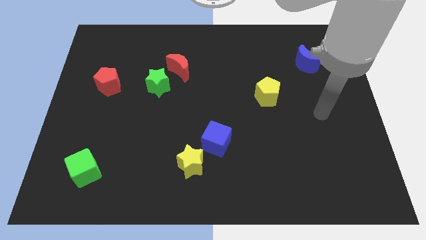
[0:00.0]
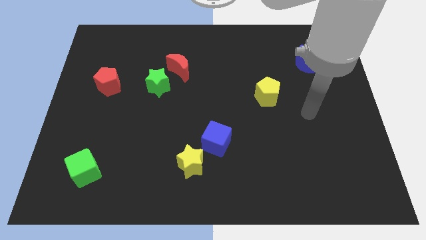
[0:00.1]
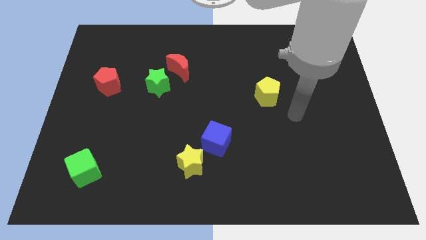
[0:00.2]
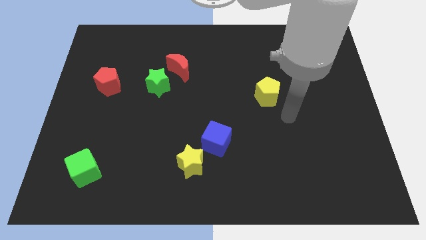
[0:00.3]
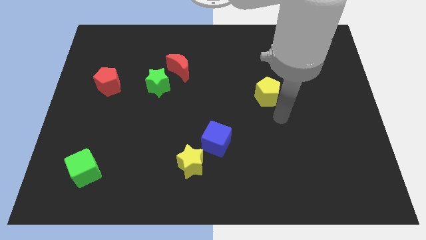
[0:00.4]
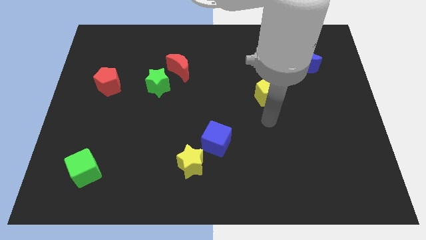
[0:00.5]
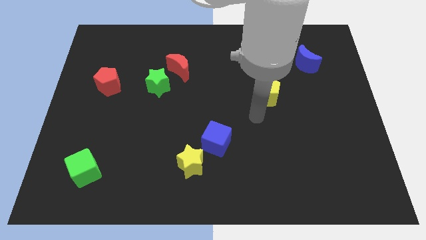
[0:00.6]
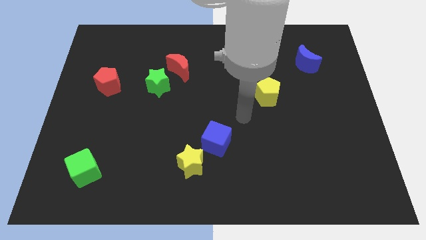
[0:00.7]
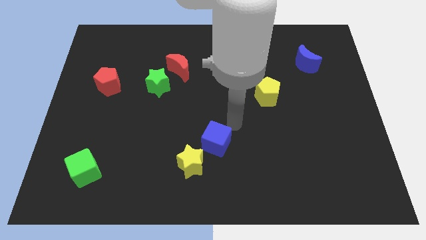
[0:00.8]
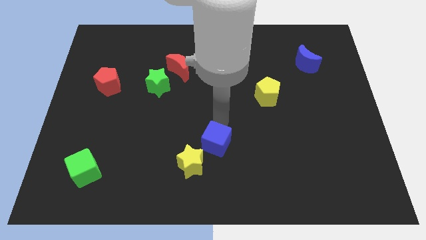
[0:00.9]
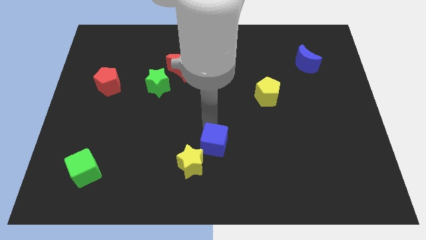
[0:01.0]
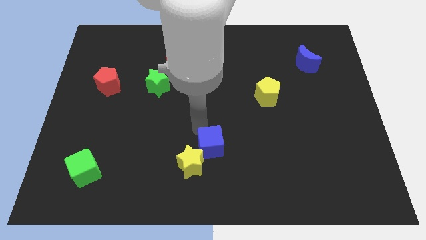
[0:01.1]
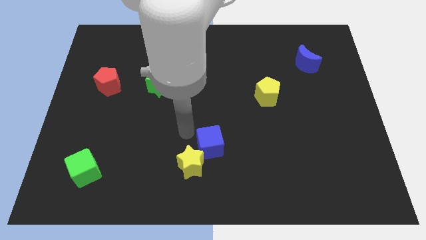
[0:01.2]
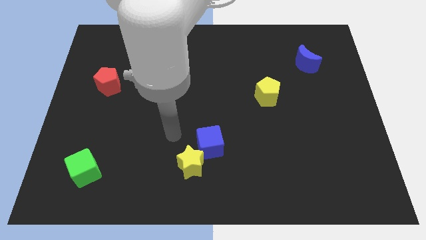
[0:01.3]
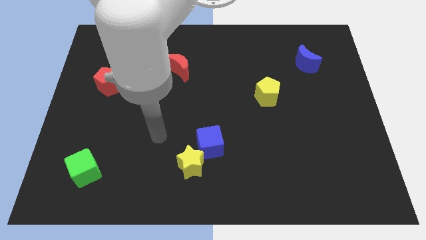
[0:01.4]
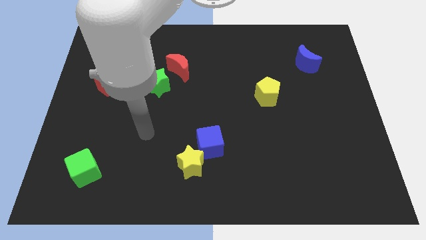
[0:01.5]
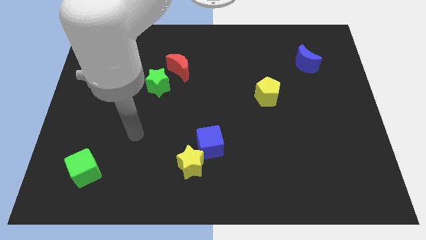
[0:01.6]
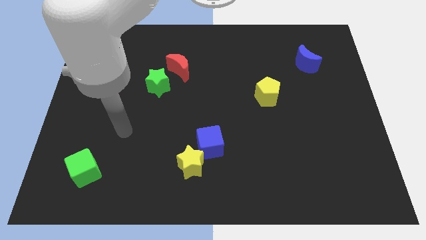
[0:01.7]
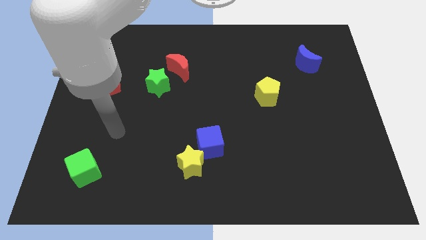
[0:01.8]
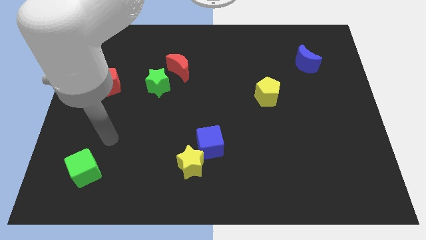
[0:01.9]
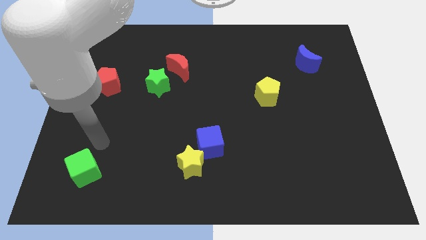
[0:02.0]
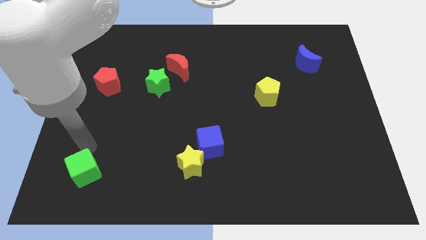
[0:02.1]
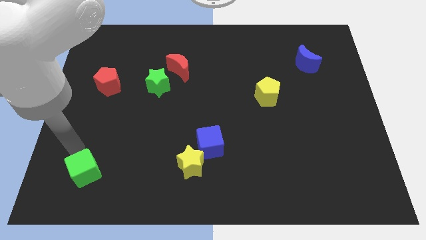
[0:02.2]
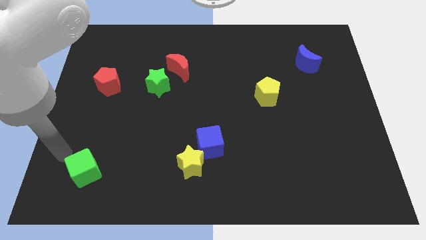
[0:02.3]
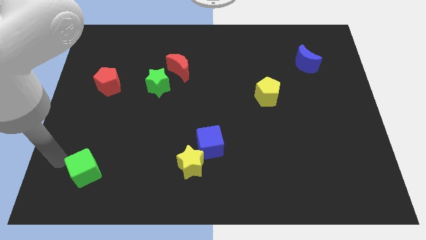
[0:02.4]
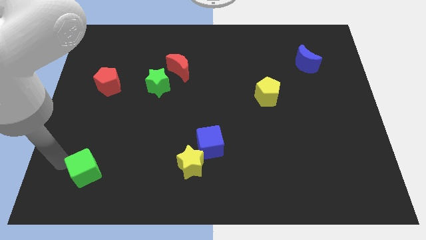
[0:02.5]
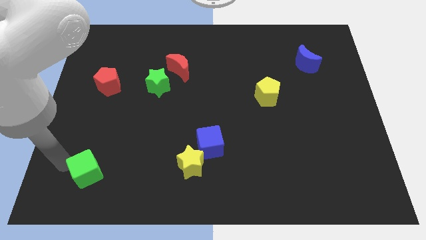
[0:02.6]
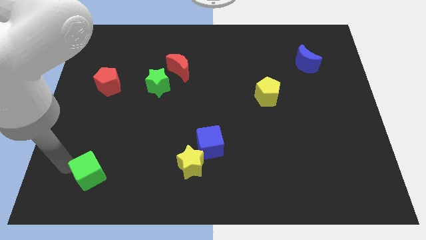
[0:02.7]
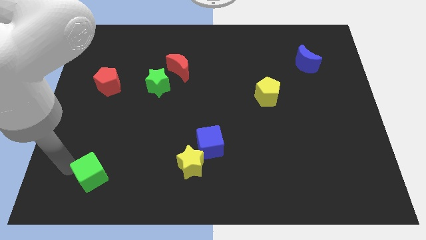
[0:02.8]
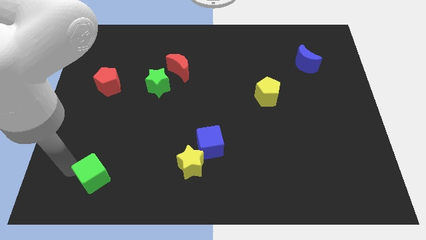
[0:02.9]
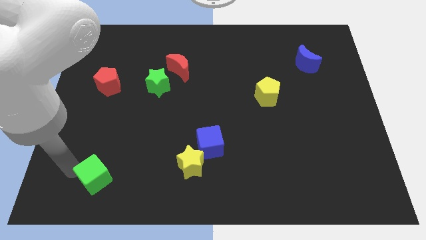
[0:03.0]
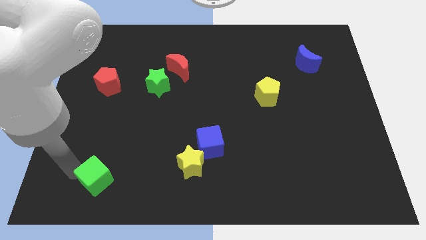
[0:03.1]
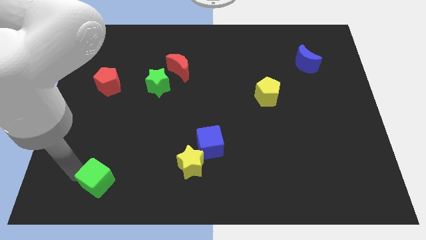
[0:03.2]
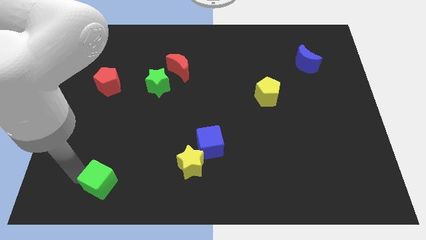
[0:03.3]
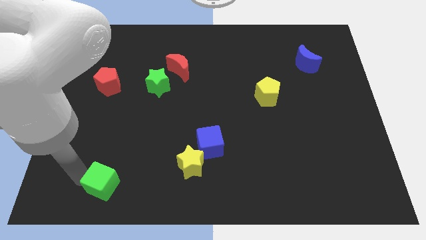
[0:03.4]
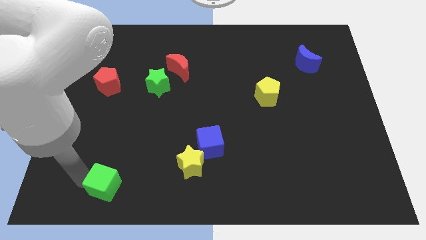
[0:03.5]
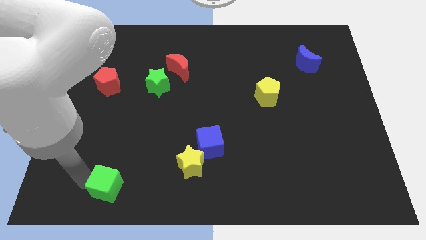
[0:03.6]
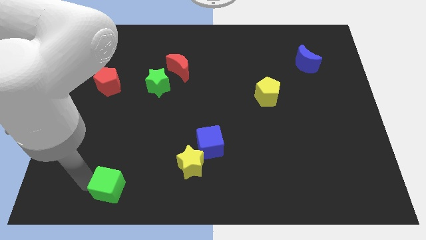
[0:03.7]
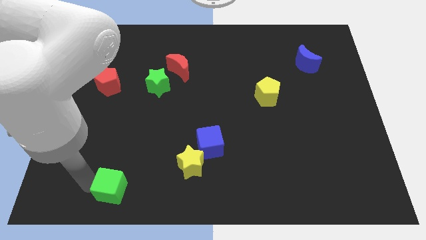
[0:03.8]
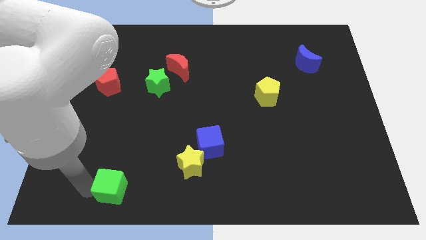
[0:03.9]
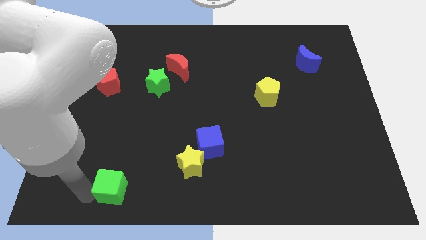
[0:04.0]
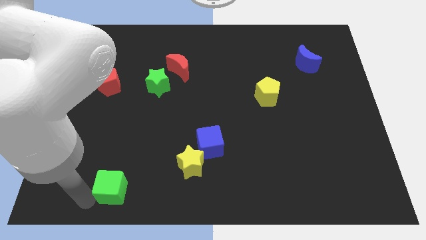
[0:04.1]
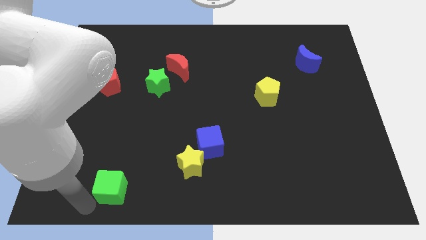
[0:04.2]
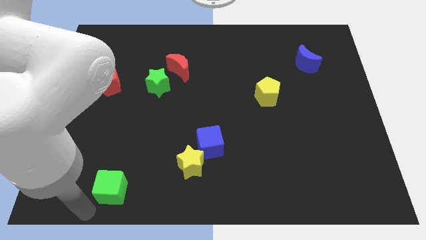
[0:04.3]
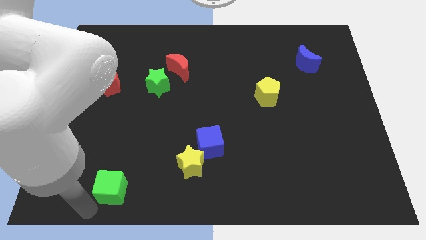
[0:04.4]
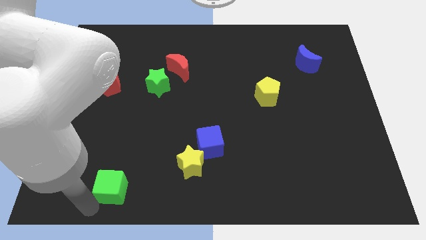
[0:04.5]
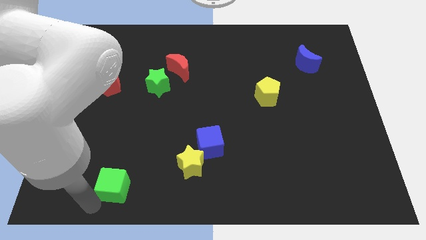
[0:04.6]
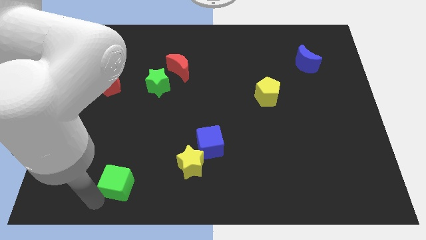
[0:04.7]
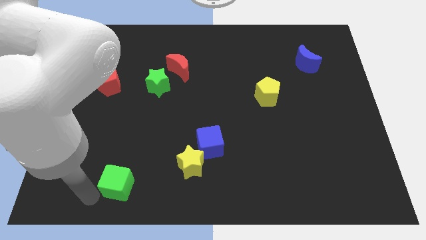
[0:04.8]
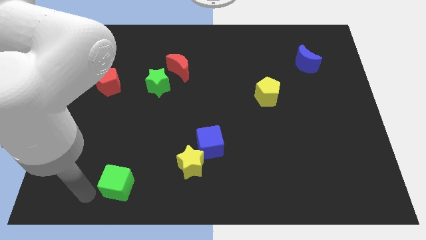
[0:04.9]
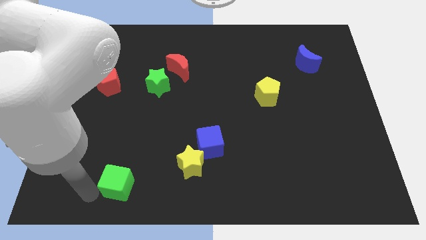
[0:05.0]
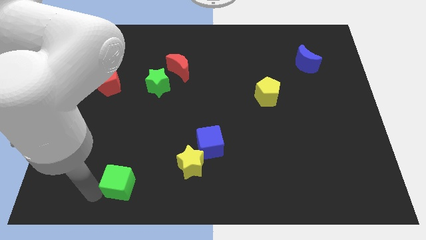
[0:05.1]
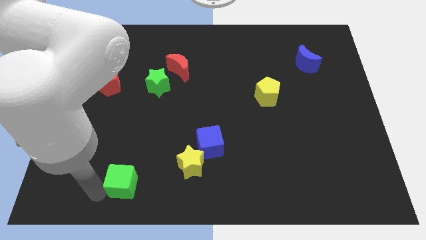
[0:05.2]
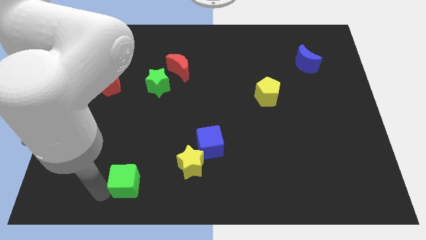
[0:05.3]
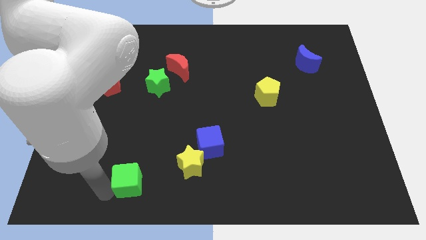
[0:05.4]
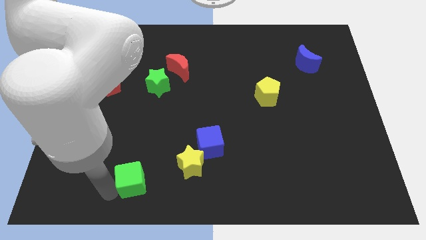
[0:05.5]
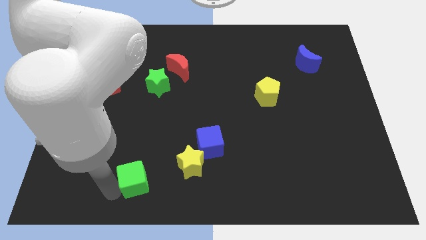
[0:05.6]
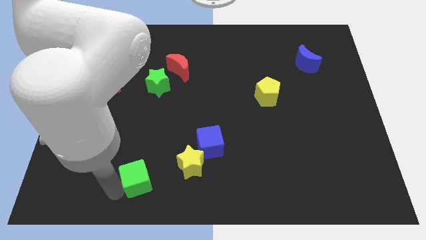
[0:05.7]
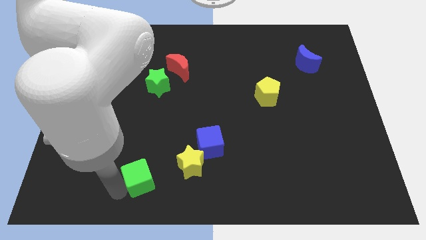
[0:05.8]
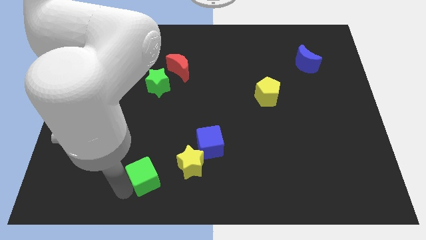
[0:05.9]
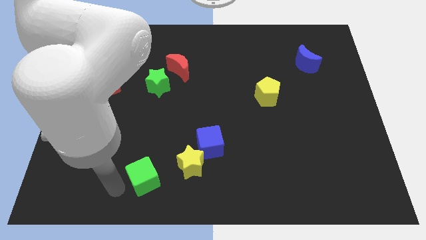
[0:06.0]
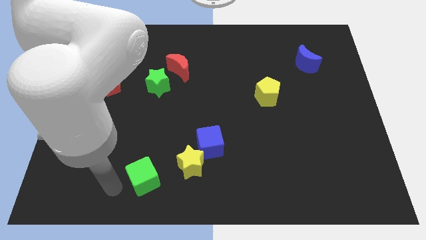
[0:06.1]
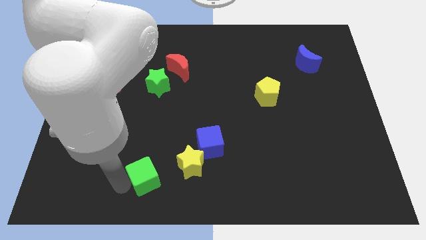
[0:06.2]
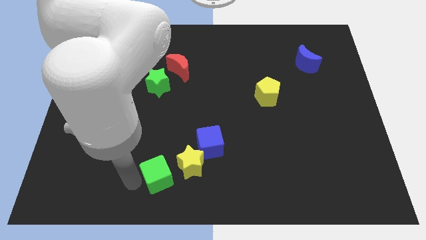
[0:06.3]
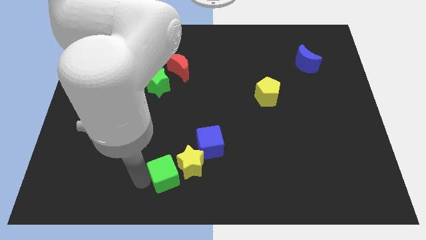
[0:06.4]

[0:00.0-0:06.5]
push the green cube towards the yellow star

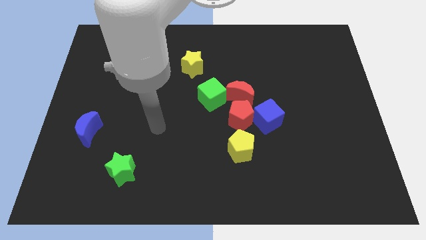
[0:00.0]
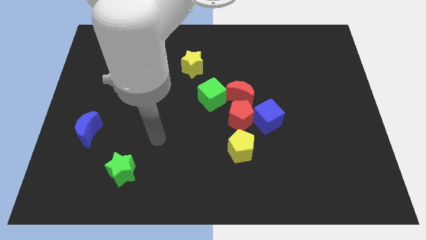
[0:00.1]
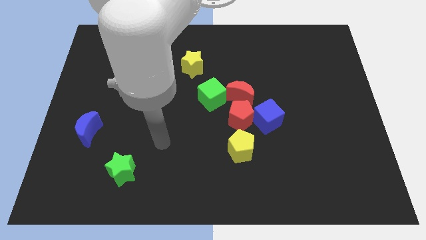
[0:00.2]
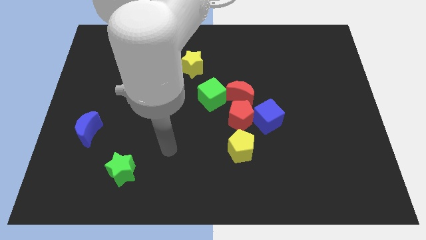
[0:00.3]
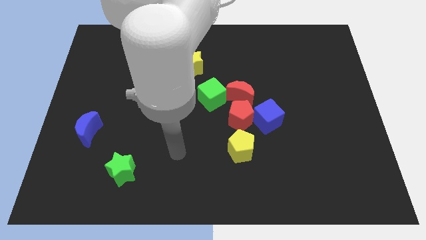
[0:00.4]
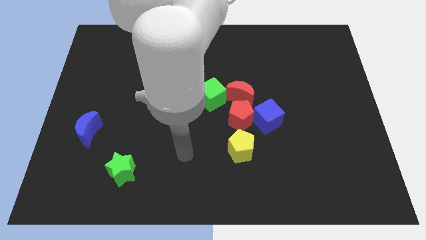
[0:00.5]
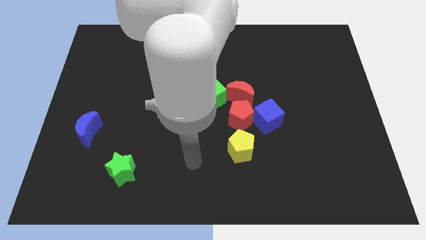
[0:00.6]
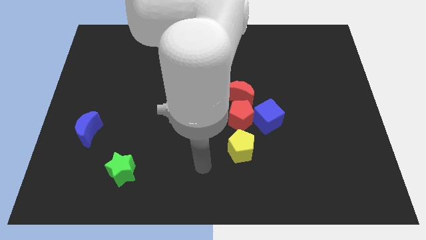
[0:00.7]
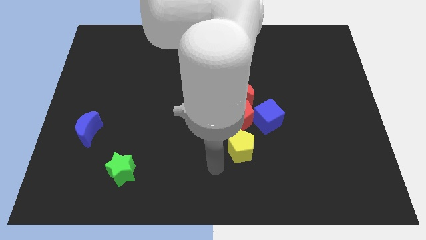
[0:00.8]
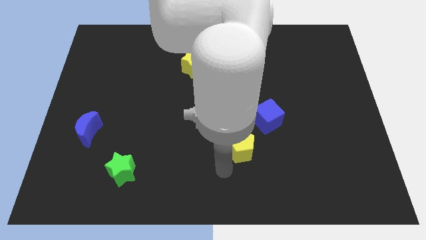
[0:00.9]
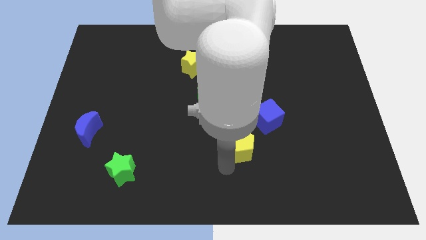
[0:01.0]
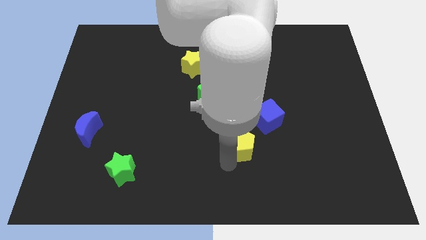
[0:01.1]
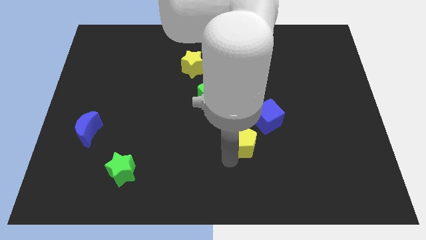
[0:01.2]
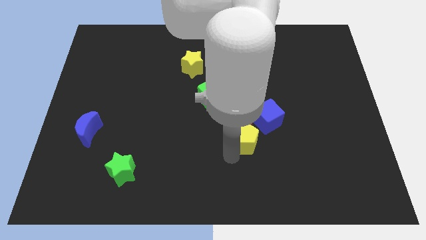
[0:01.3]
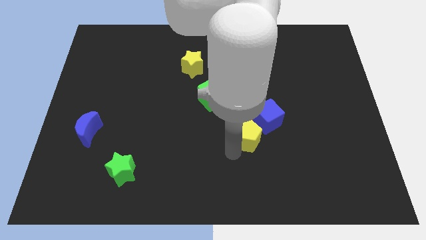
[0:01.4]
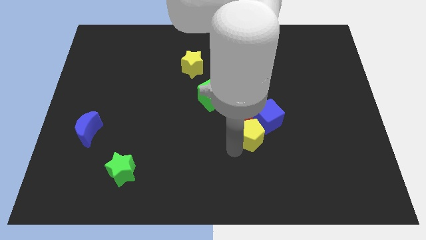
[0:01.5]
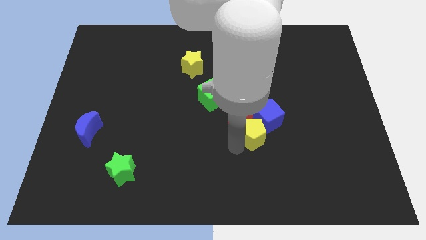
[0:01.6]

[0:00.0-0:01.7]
push the yellow pentagon towards the blue cube
